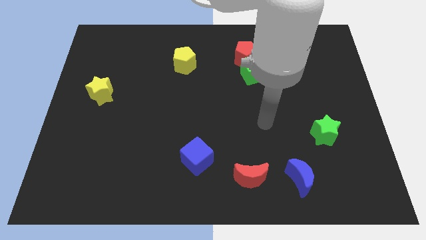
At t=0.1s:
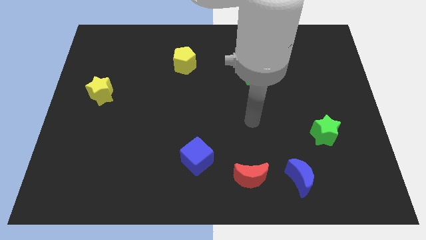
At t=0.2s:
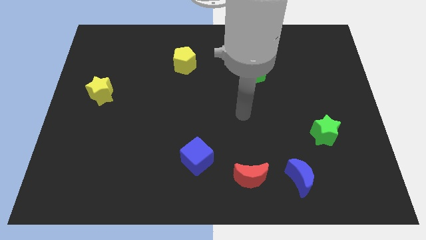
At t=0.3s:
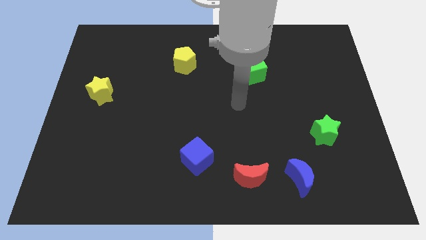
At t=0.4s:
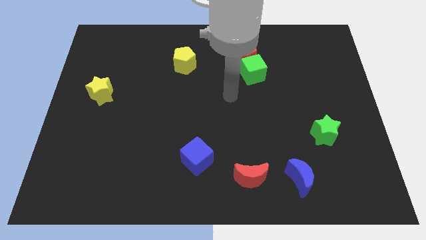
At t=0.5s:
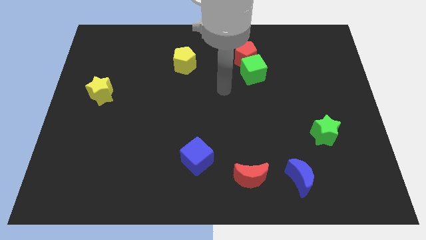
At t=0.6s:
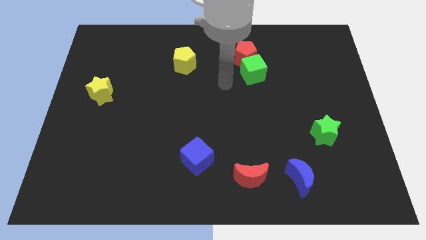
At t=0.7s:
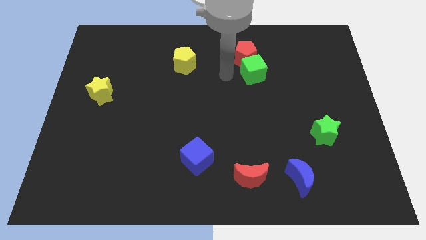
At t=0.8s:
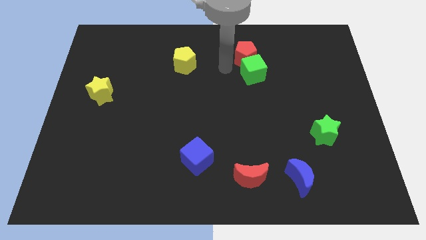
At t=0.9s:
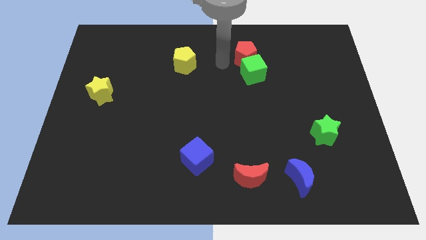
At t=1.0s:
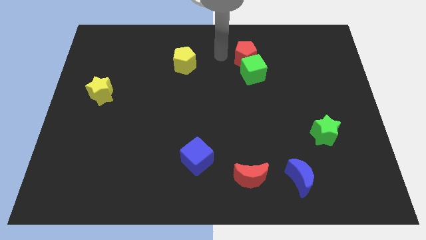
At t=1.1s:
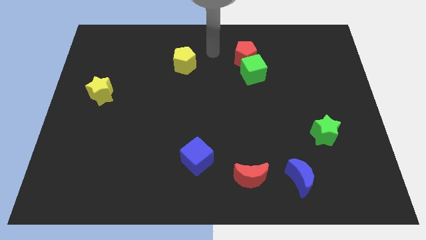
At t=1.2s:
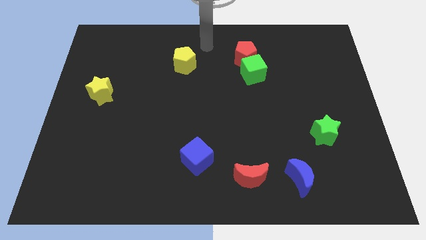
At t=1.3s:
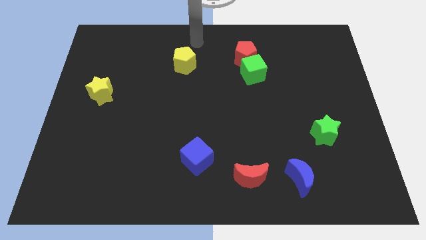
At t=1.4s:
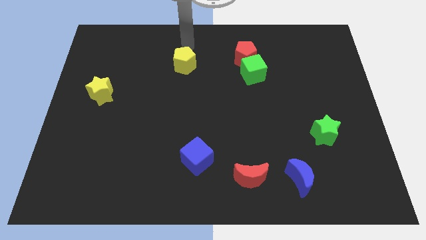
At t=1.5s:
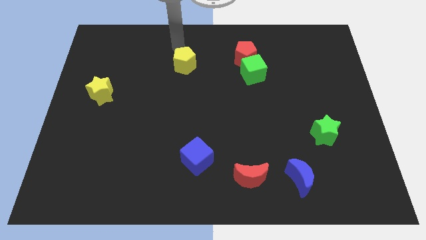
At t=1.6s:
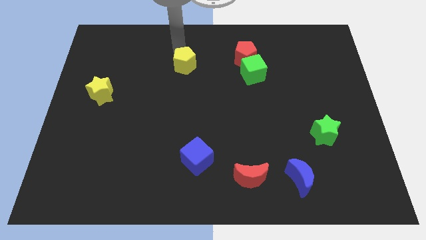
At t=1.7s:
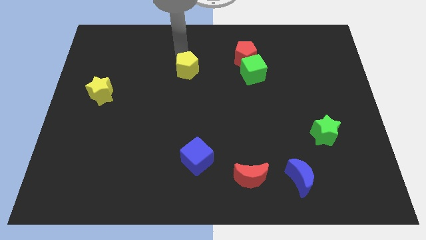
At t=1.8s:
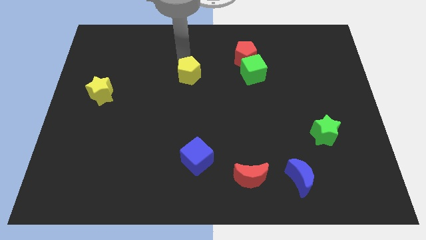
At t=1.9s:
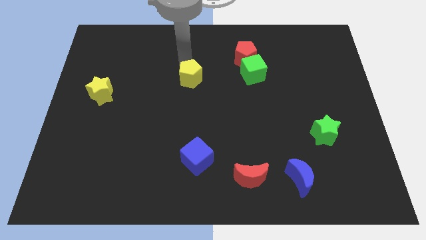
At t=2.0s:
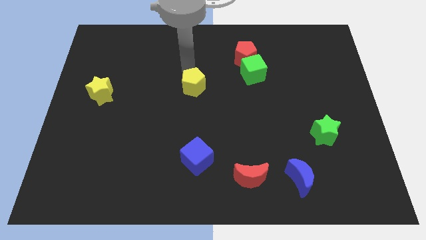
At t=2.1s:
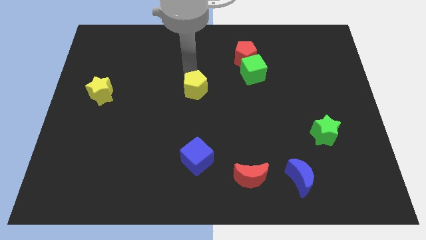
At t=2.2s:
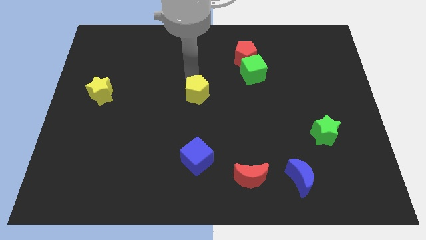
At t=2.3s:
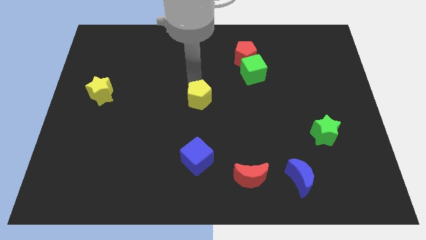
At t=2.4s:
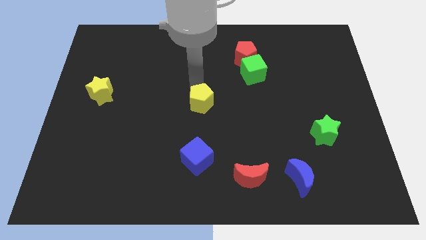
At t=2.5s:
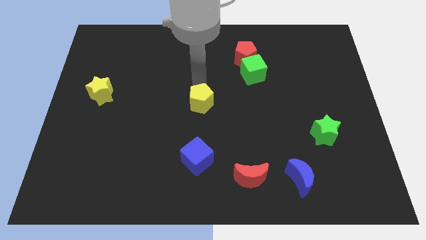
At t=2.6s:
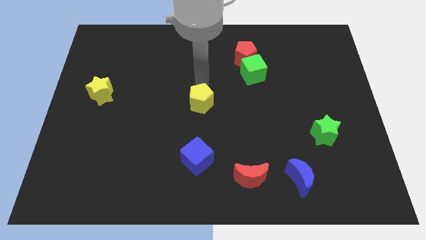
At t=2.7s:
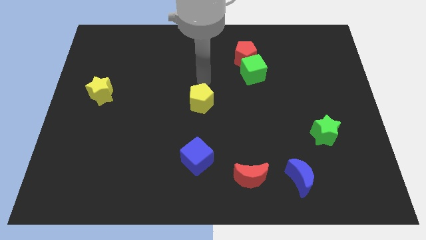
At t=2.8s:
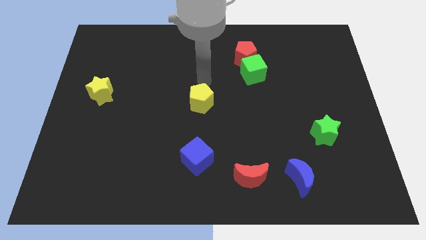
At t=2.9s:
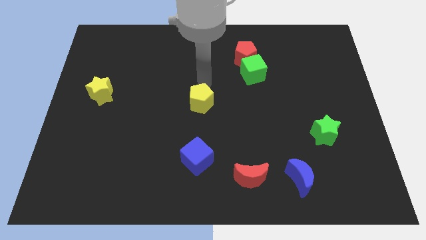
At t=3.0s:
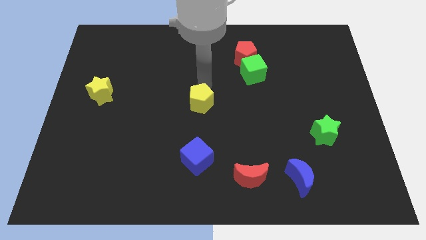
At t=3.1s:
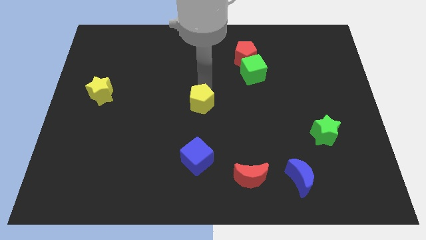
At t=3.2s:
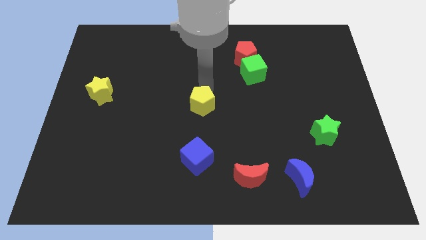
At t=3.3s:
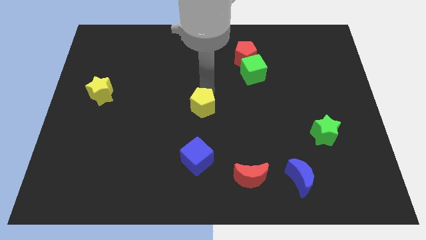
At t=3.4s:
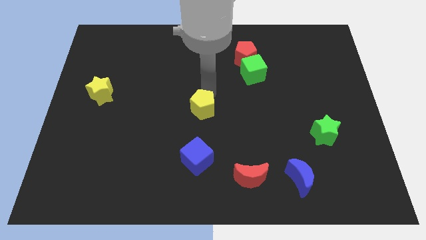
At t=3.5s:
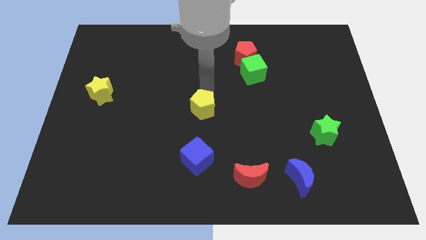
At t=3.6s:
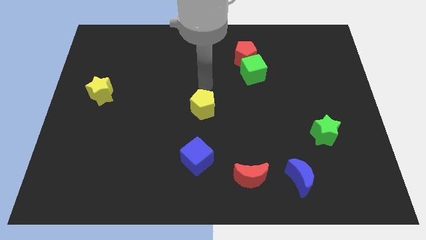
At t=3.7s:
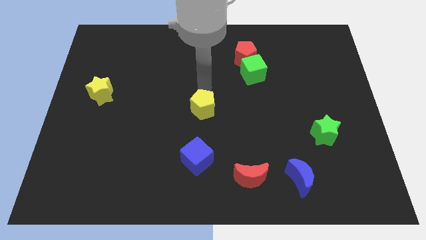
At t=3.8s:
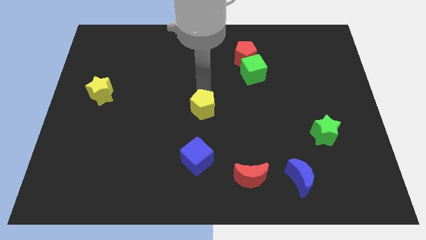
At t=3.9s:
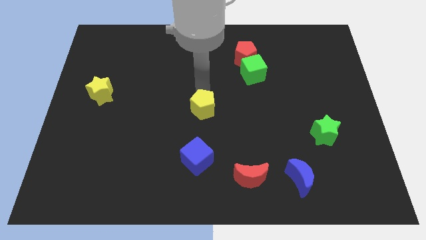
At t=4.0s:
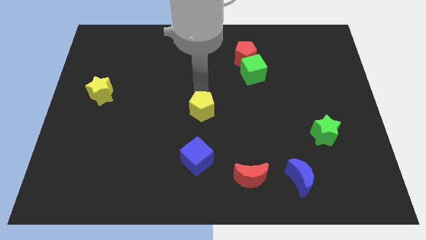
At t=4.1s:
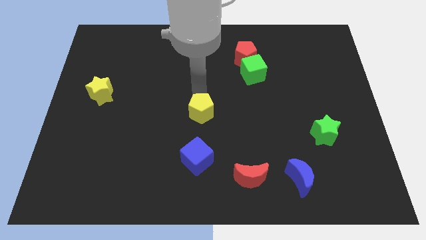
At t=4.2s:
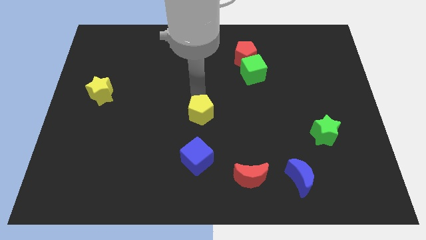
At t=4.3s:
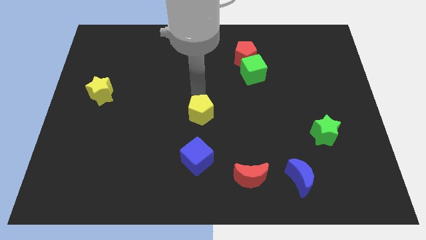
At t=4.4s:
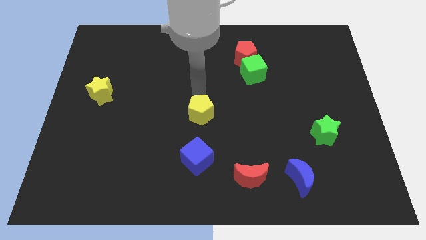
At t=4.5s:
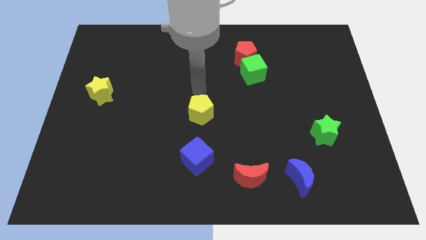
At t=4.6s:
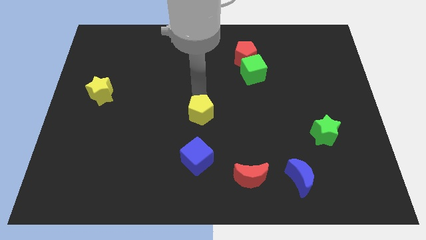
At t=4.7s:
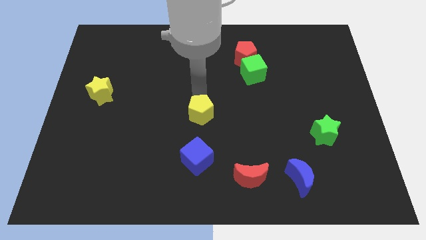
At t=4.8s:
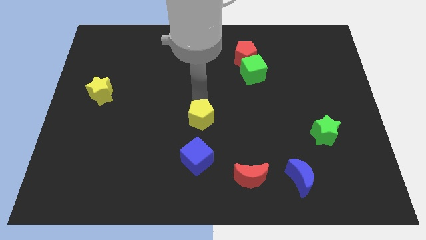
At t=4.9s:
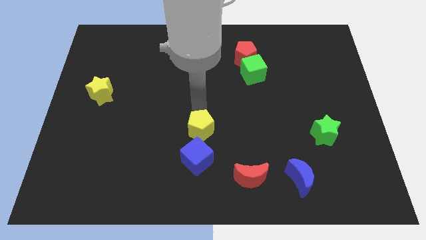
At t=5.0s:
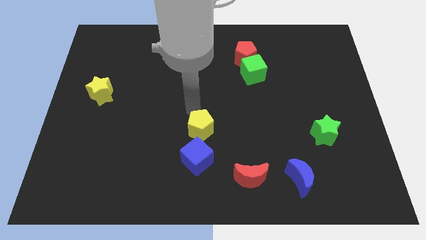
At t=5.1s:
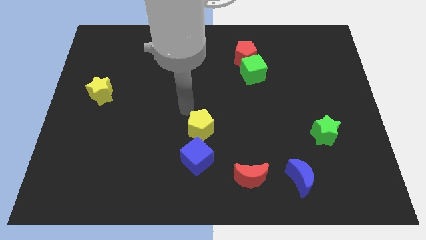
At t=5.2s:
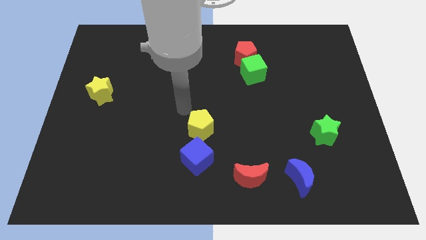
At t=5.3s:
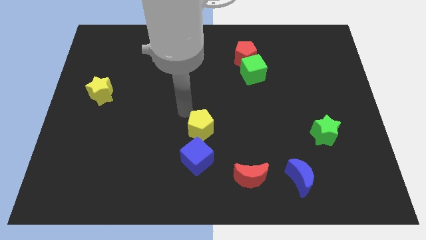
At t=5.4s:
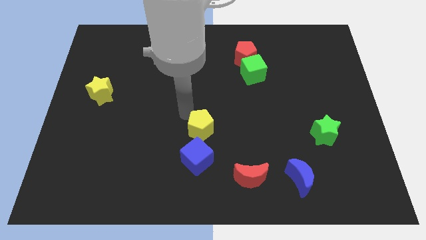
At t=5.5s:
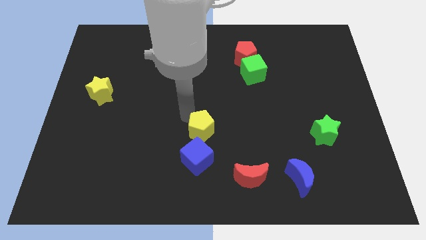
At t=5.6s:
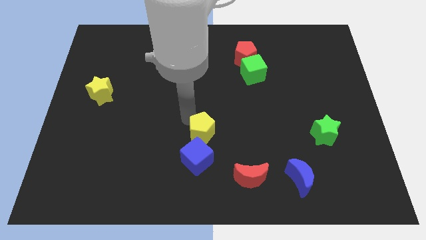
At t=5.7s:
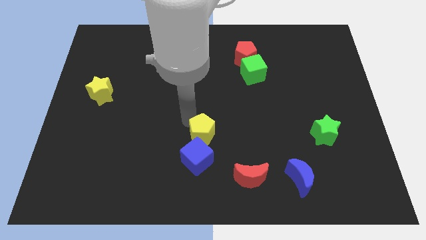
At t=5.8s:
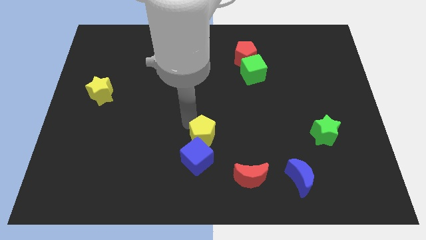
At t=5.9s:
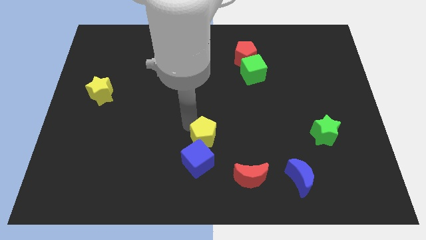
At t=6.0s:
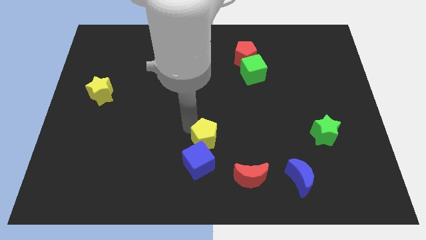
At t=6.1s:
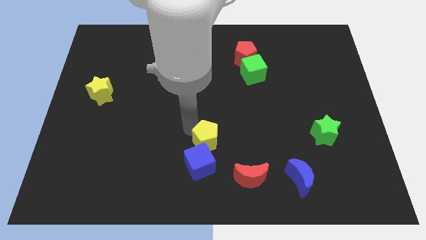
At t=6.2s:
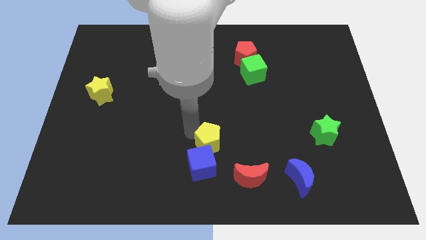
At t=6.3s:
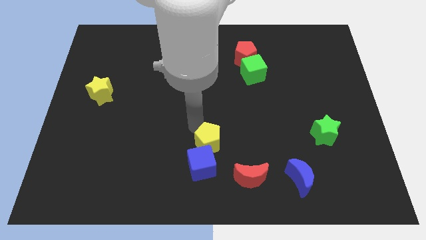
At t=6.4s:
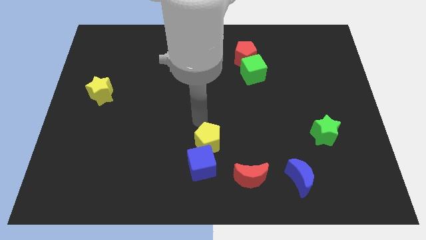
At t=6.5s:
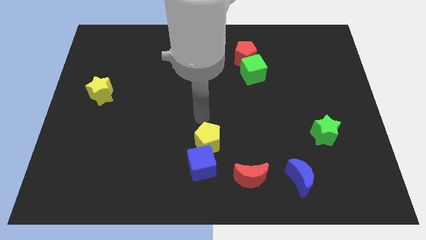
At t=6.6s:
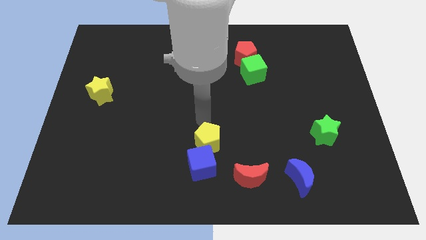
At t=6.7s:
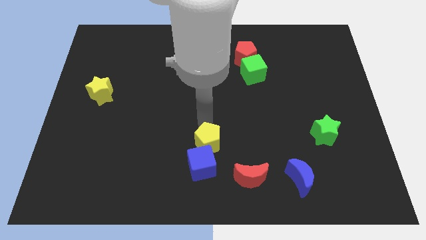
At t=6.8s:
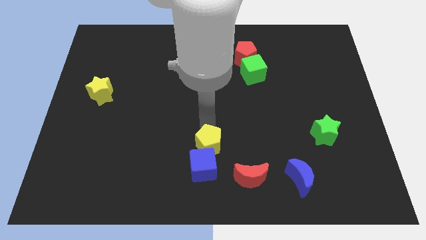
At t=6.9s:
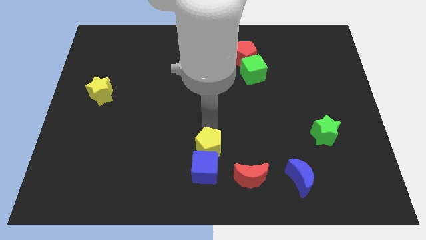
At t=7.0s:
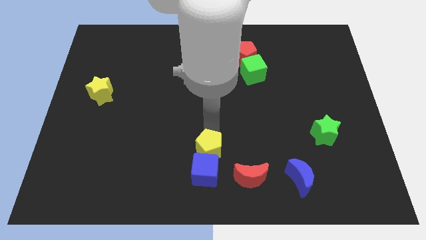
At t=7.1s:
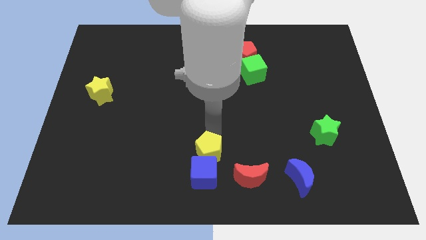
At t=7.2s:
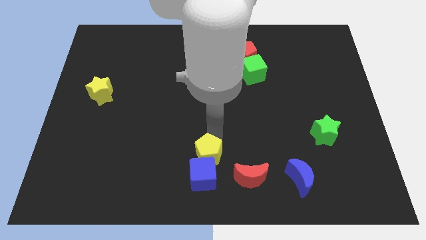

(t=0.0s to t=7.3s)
move the yellow pentagon to the bottom side
